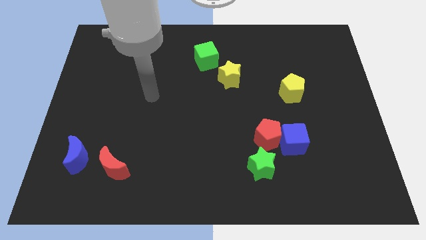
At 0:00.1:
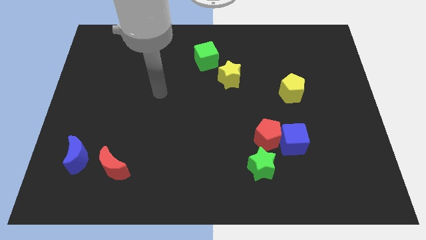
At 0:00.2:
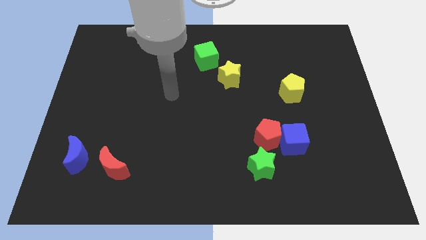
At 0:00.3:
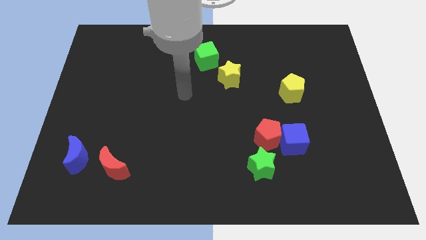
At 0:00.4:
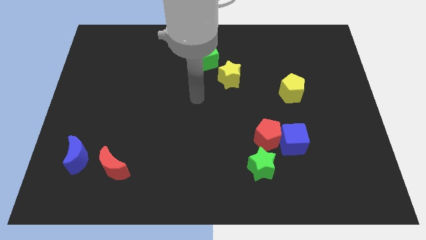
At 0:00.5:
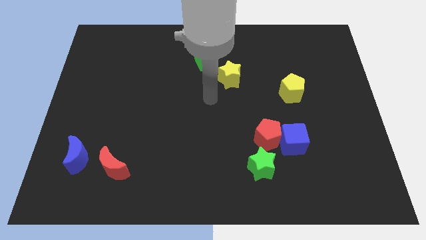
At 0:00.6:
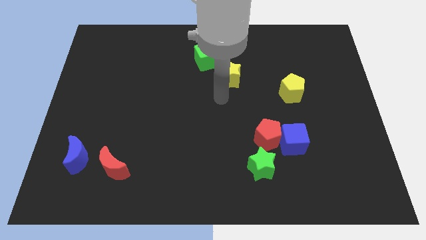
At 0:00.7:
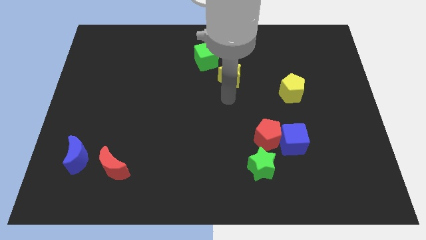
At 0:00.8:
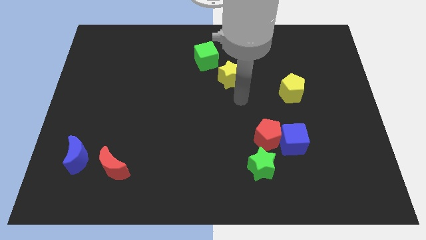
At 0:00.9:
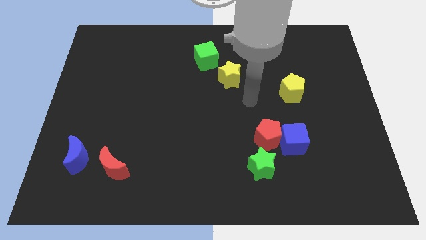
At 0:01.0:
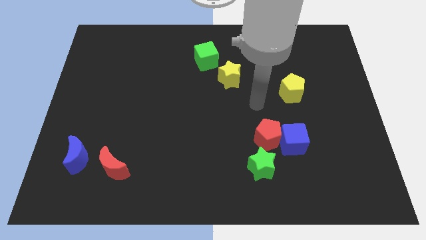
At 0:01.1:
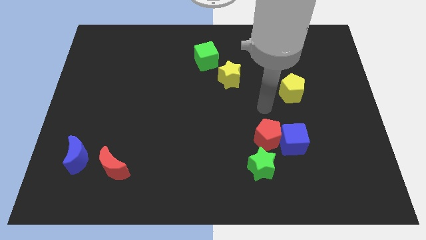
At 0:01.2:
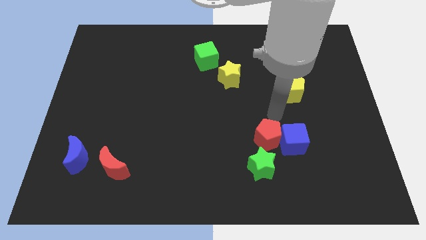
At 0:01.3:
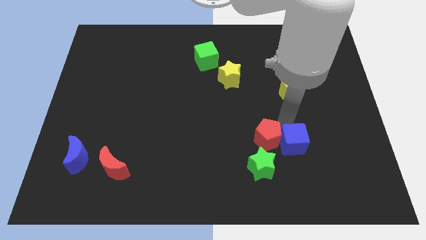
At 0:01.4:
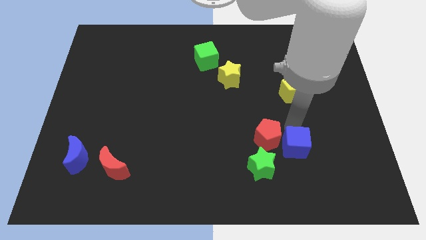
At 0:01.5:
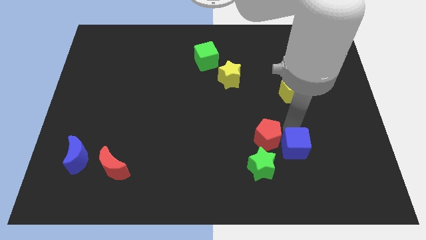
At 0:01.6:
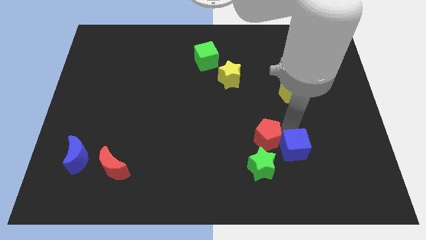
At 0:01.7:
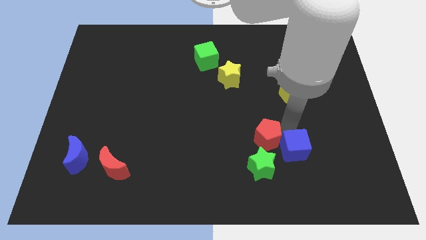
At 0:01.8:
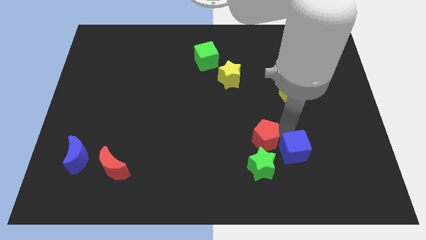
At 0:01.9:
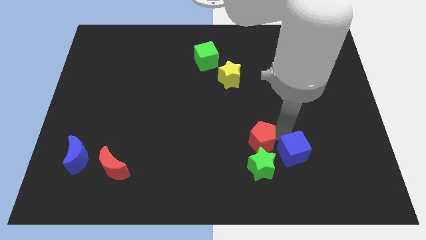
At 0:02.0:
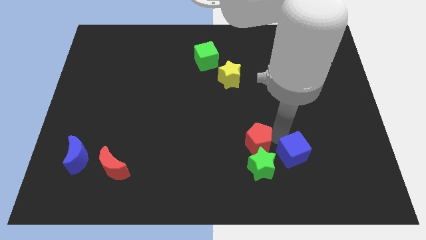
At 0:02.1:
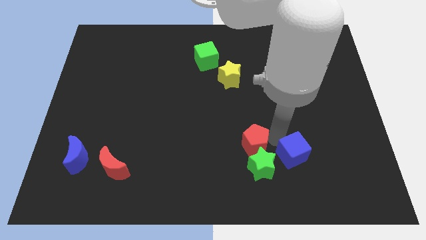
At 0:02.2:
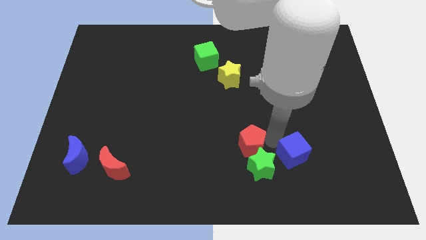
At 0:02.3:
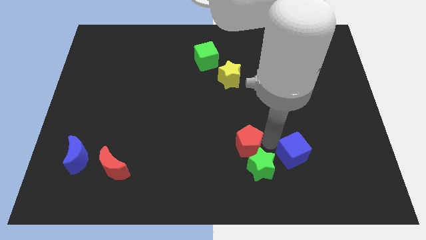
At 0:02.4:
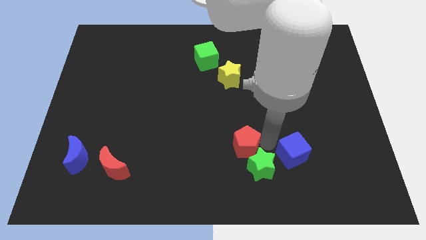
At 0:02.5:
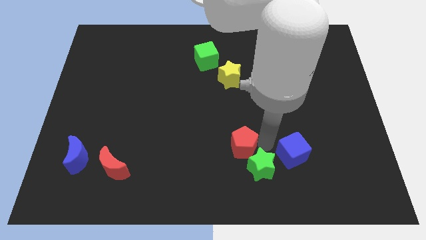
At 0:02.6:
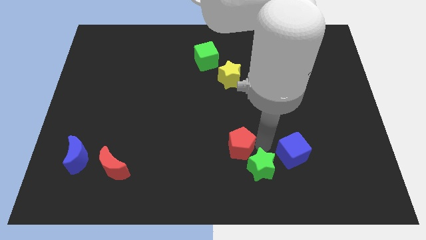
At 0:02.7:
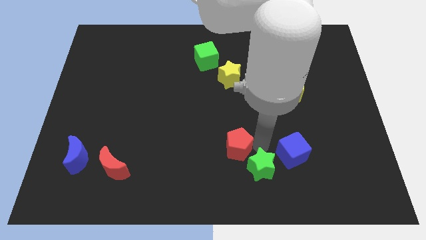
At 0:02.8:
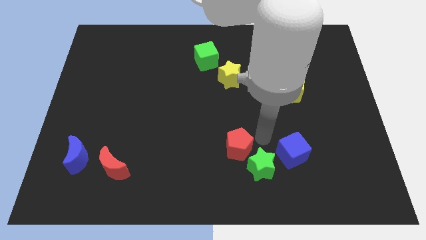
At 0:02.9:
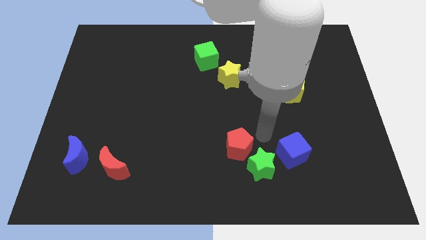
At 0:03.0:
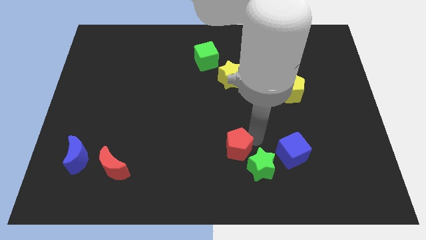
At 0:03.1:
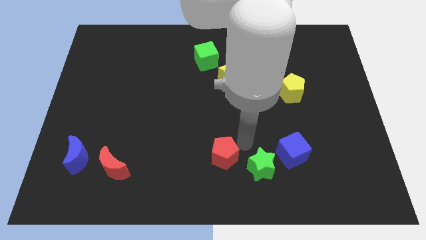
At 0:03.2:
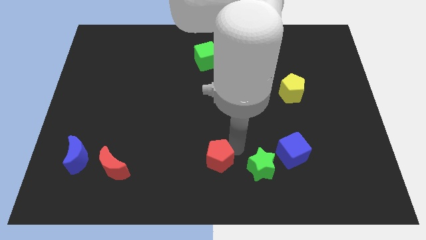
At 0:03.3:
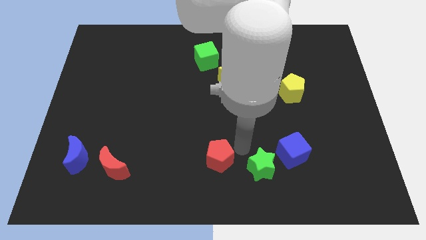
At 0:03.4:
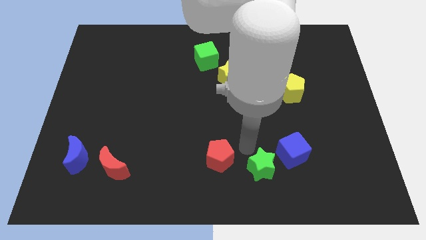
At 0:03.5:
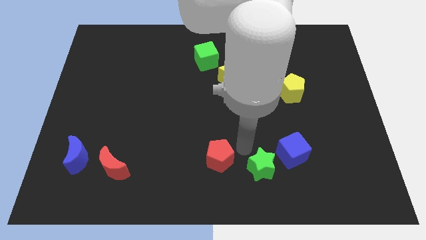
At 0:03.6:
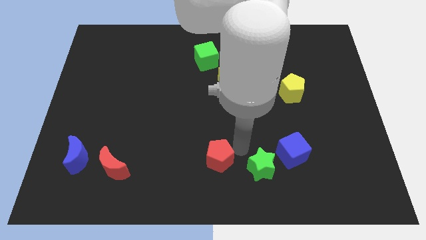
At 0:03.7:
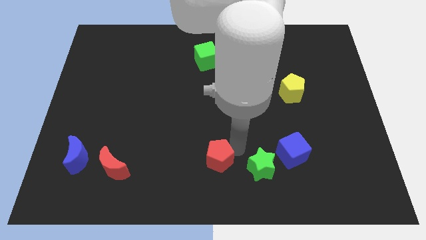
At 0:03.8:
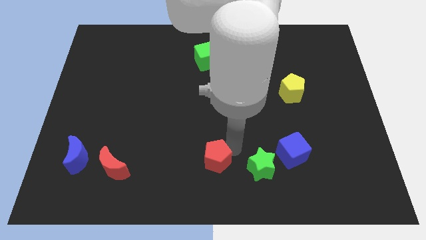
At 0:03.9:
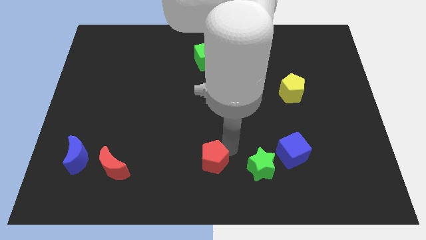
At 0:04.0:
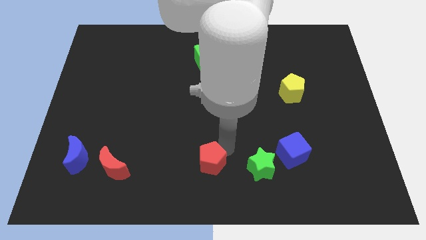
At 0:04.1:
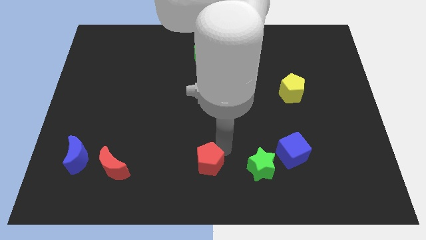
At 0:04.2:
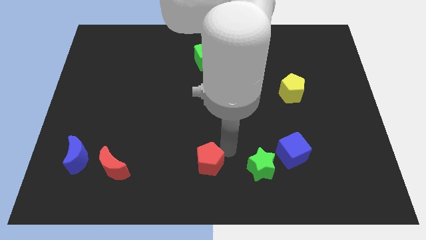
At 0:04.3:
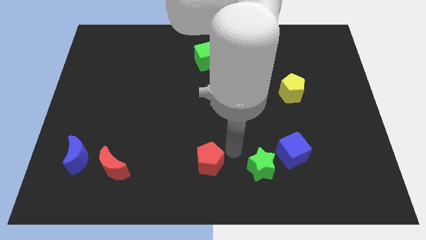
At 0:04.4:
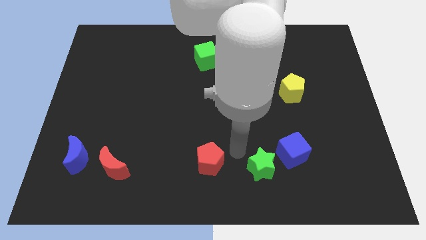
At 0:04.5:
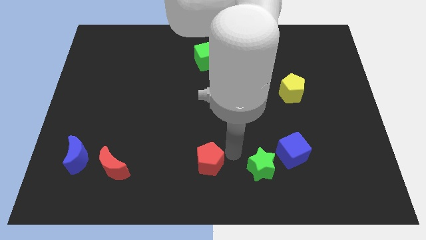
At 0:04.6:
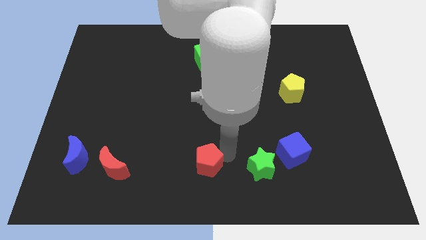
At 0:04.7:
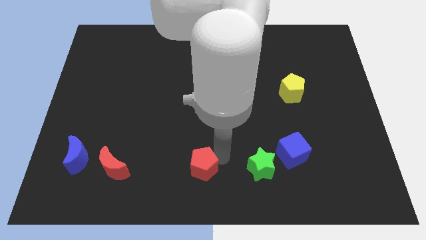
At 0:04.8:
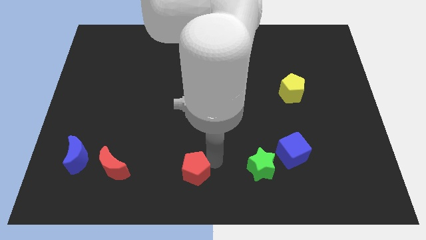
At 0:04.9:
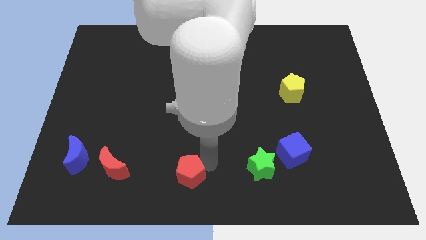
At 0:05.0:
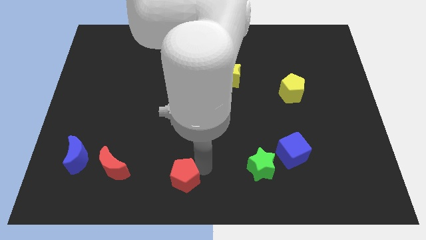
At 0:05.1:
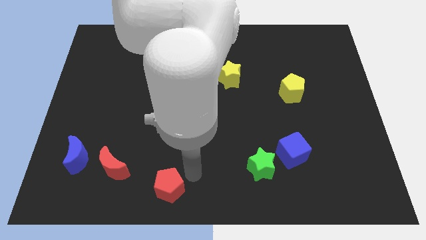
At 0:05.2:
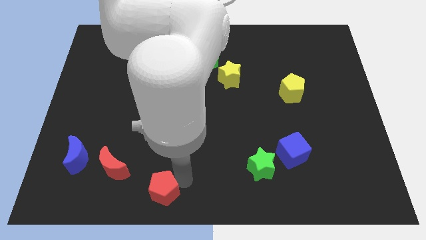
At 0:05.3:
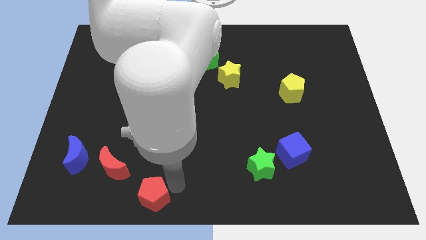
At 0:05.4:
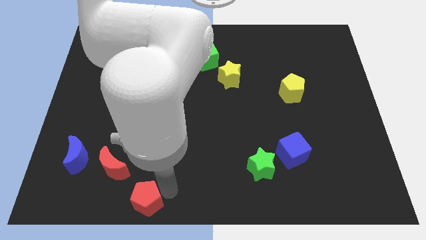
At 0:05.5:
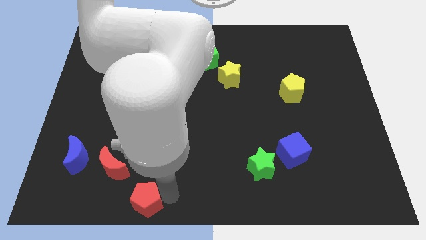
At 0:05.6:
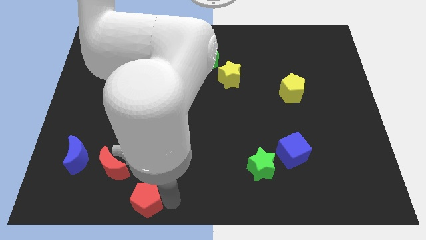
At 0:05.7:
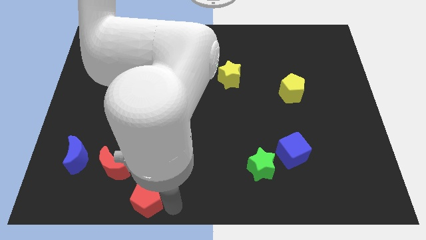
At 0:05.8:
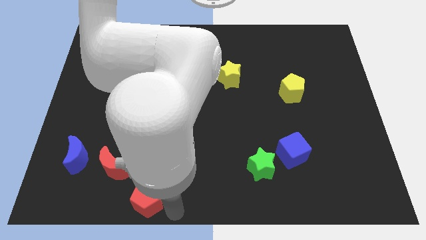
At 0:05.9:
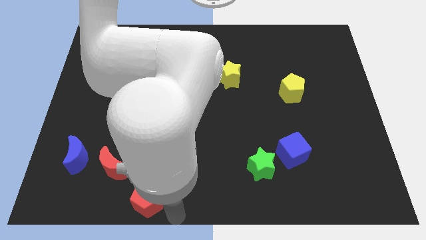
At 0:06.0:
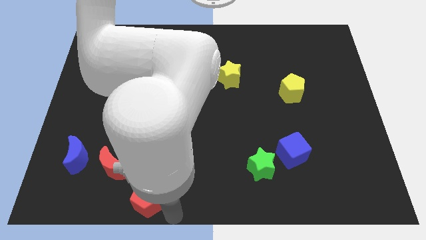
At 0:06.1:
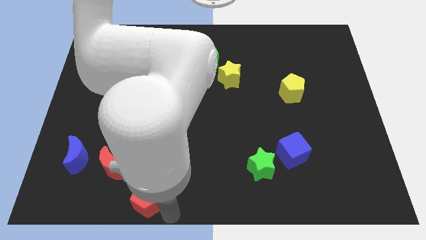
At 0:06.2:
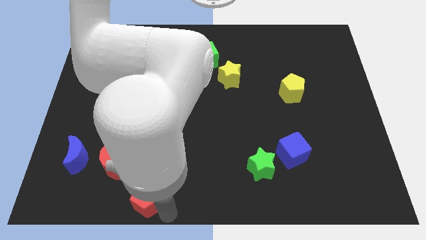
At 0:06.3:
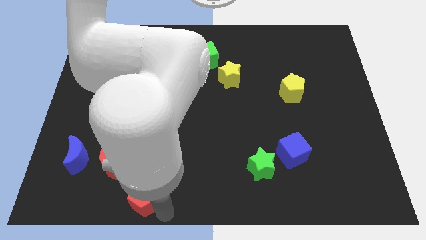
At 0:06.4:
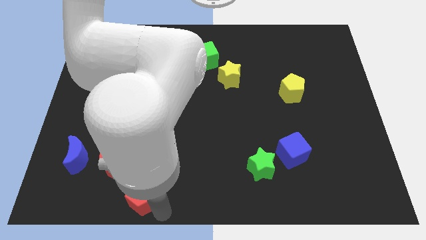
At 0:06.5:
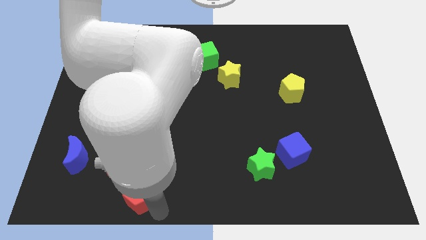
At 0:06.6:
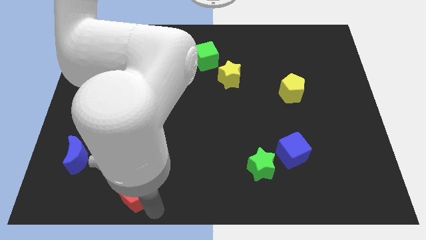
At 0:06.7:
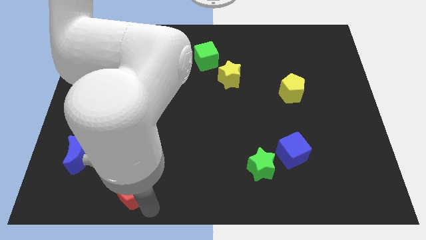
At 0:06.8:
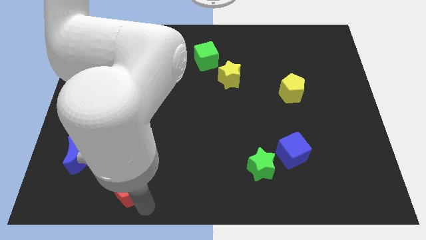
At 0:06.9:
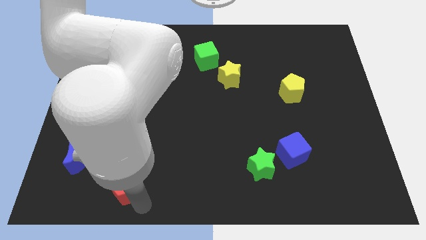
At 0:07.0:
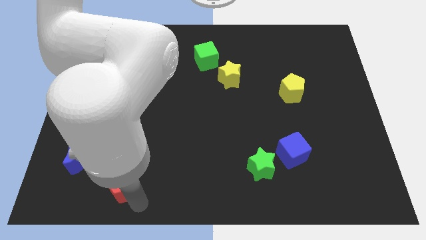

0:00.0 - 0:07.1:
push the red pentagon to the bottom right side of the blue moon

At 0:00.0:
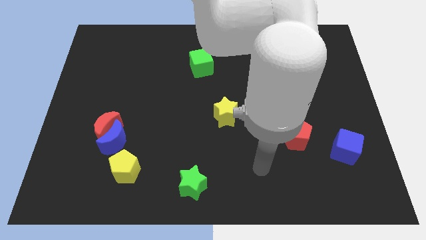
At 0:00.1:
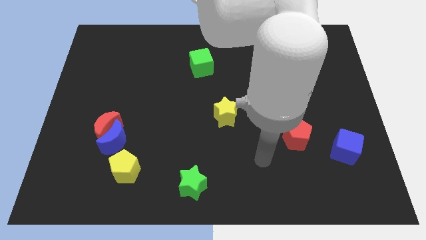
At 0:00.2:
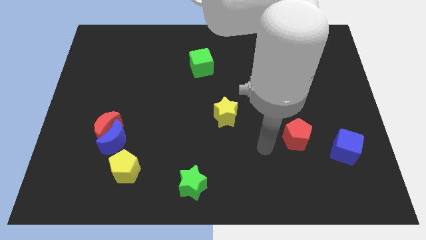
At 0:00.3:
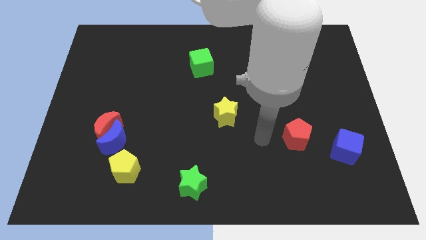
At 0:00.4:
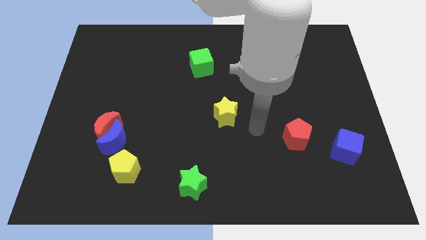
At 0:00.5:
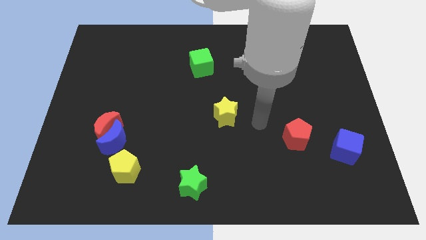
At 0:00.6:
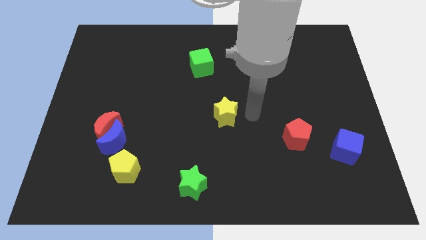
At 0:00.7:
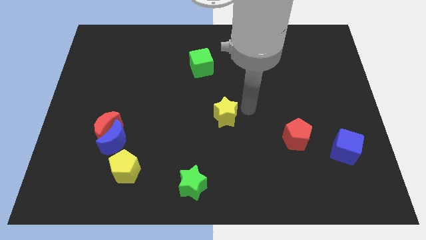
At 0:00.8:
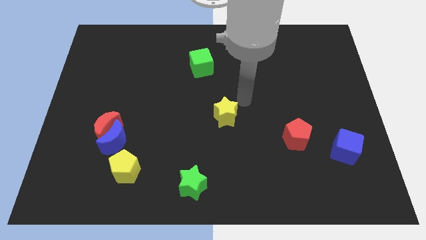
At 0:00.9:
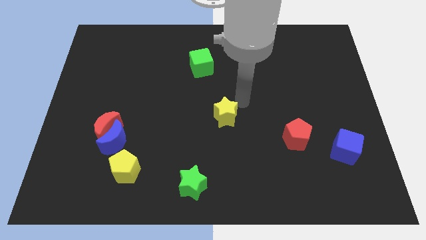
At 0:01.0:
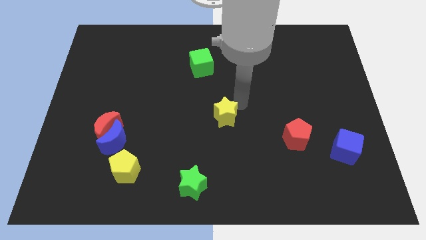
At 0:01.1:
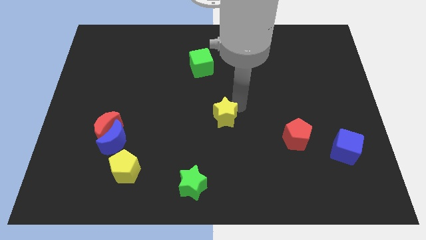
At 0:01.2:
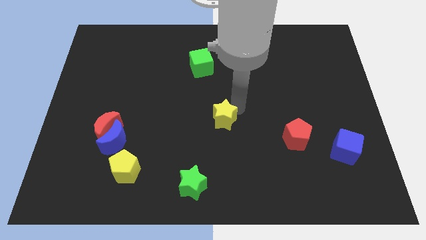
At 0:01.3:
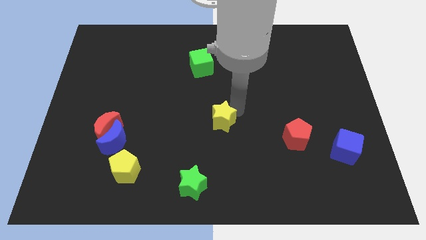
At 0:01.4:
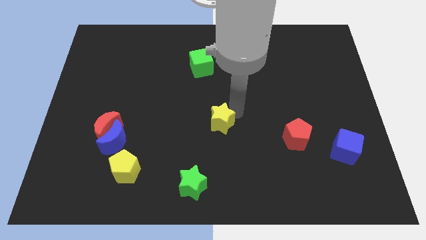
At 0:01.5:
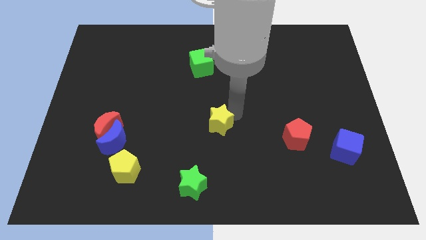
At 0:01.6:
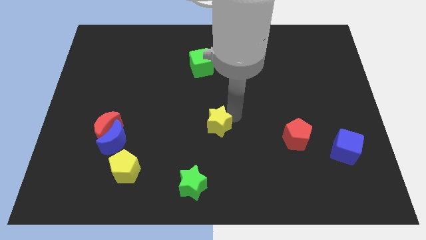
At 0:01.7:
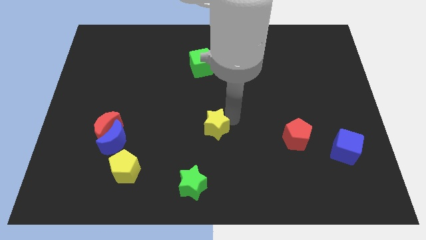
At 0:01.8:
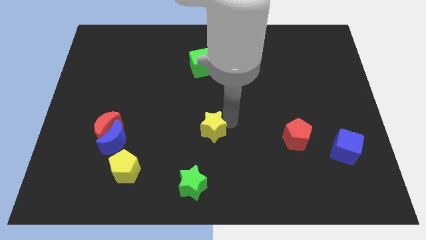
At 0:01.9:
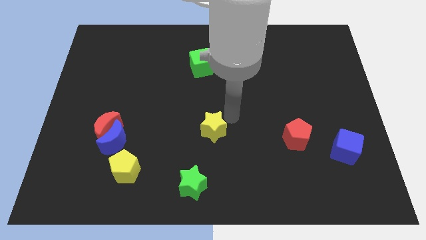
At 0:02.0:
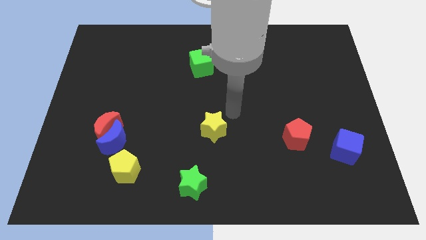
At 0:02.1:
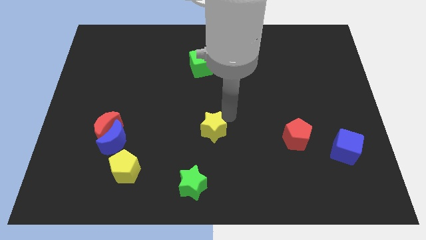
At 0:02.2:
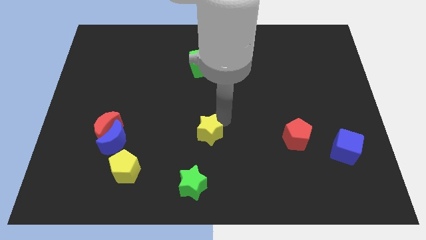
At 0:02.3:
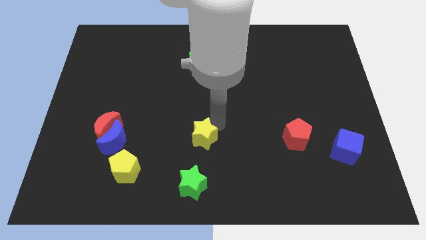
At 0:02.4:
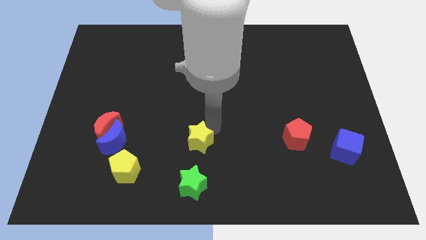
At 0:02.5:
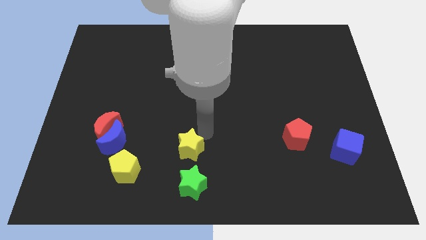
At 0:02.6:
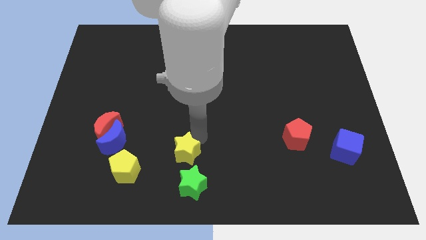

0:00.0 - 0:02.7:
put the yellow star right of the yellow pentagon
